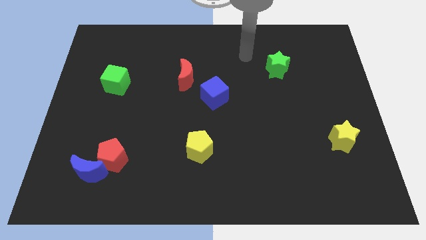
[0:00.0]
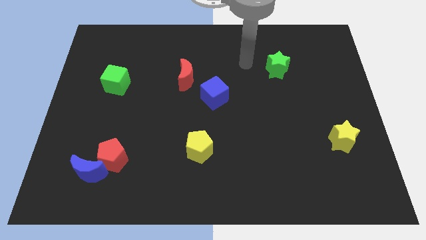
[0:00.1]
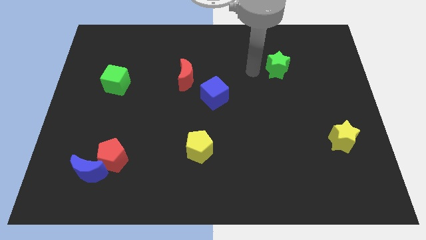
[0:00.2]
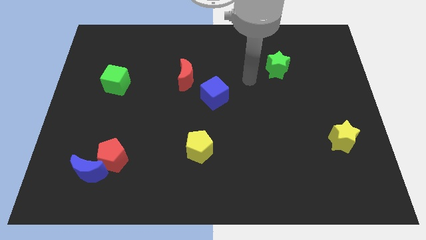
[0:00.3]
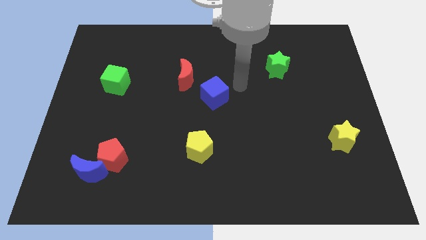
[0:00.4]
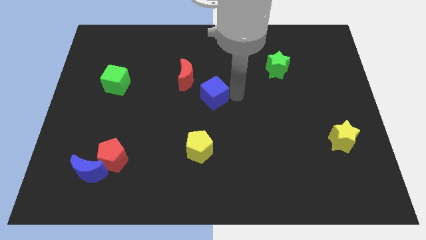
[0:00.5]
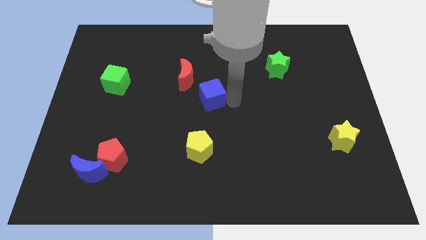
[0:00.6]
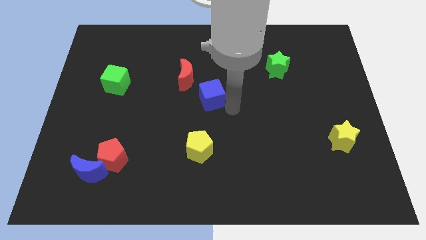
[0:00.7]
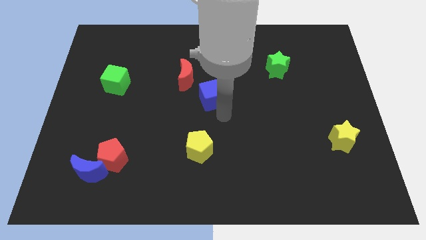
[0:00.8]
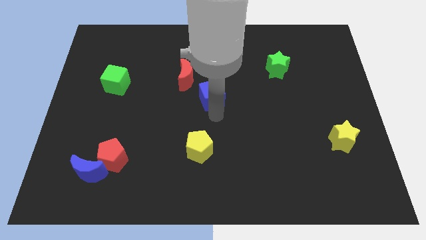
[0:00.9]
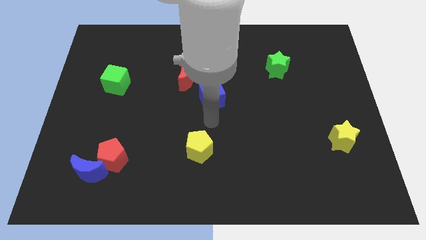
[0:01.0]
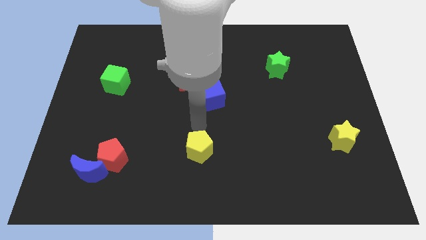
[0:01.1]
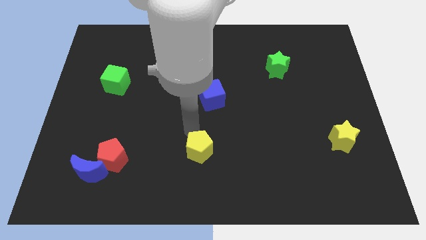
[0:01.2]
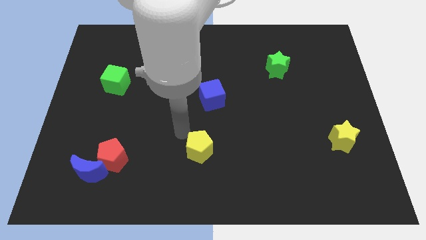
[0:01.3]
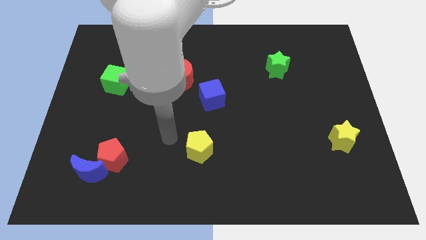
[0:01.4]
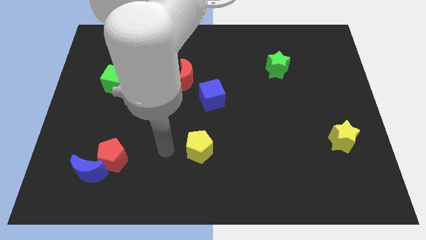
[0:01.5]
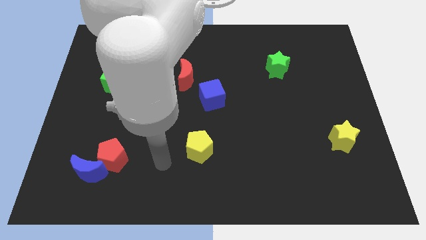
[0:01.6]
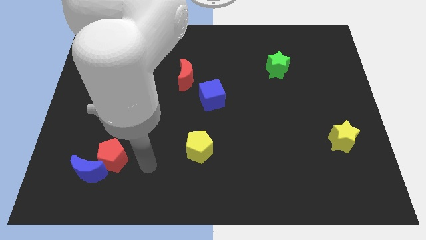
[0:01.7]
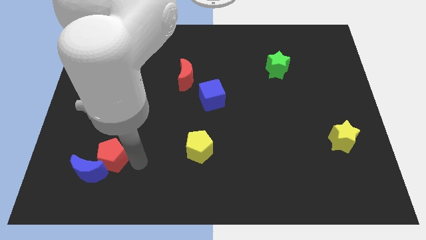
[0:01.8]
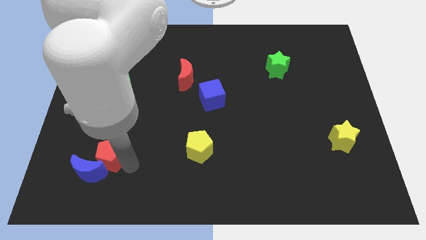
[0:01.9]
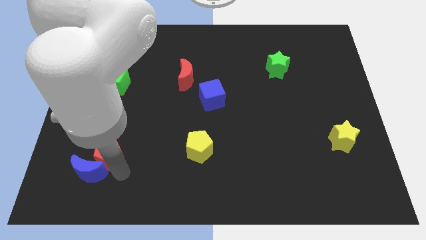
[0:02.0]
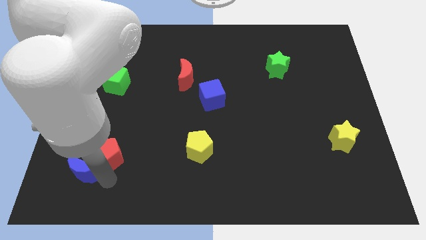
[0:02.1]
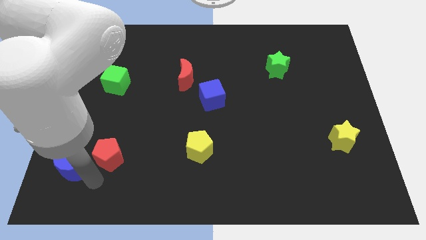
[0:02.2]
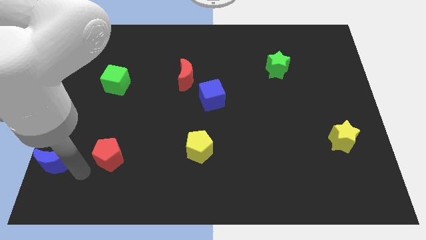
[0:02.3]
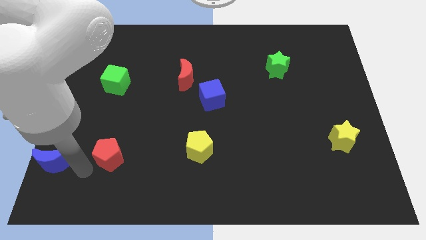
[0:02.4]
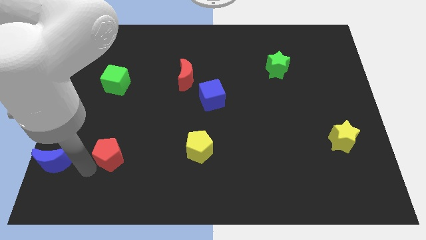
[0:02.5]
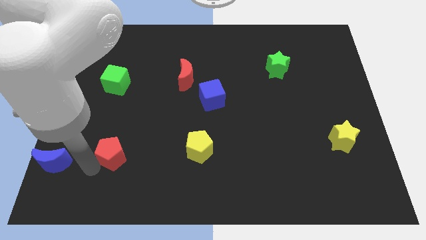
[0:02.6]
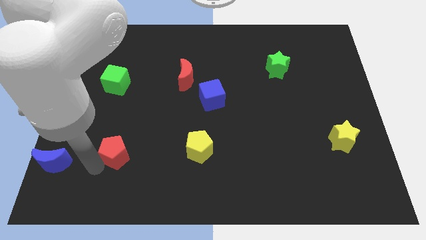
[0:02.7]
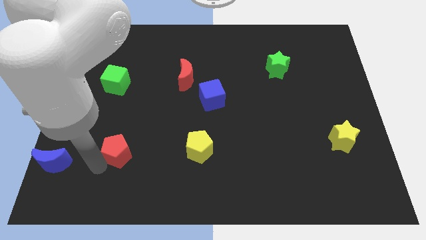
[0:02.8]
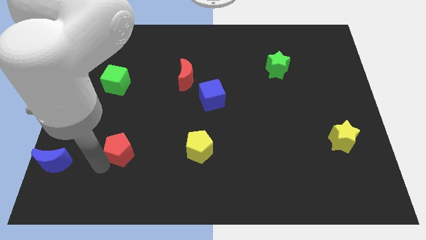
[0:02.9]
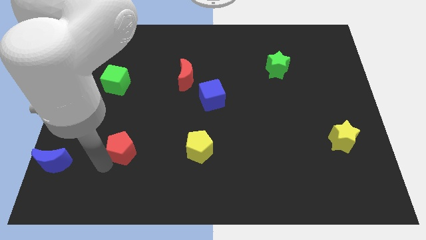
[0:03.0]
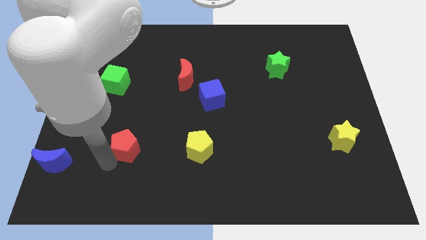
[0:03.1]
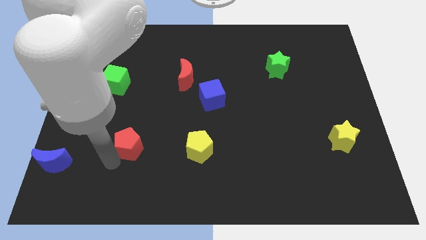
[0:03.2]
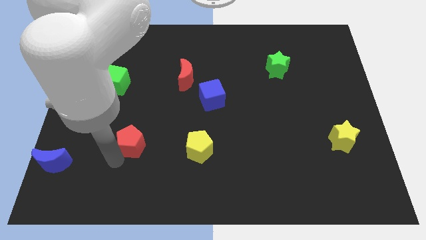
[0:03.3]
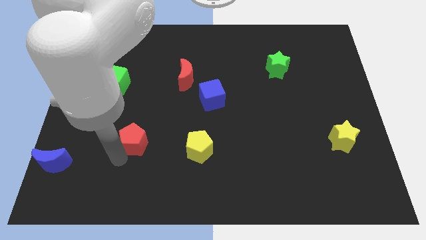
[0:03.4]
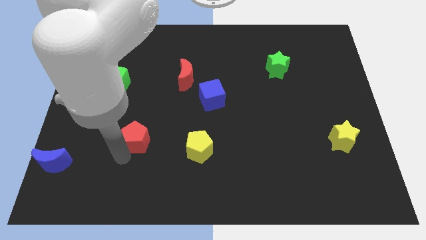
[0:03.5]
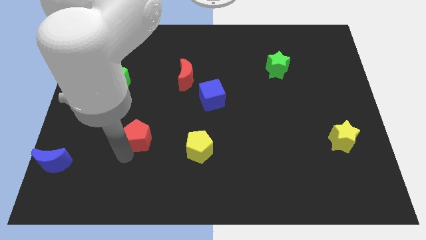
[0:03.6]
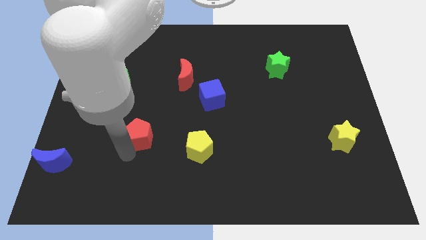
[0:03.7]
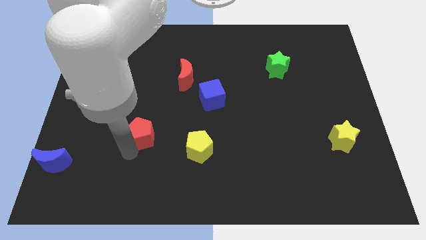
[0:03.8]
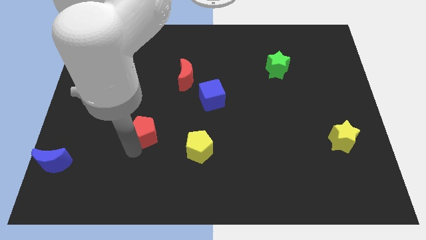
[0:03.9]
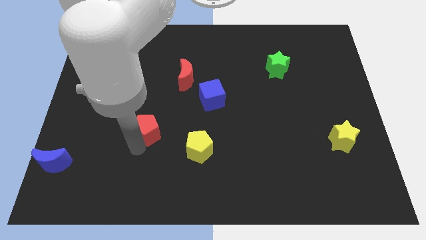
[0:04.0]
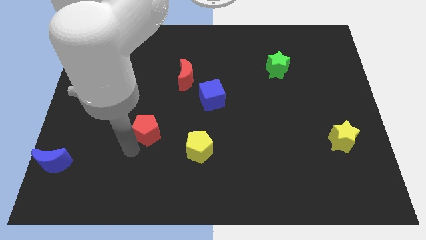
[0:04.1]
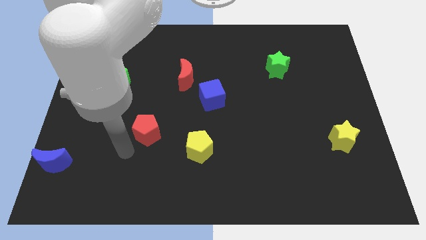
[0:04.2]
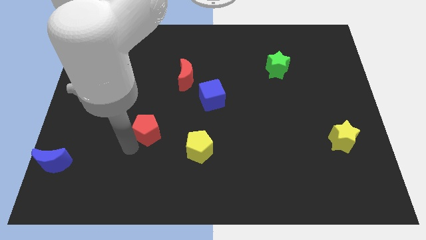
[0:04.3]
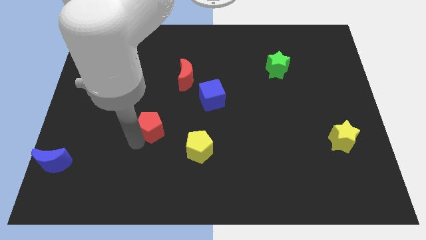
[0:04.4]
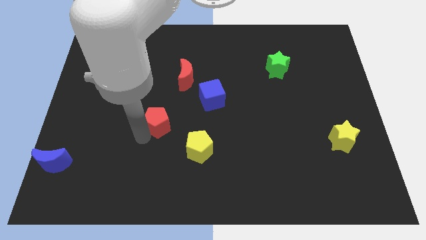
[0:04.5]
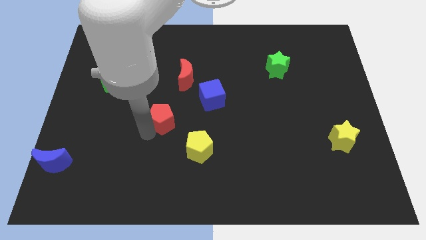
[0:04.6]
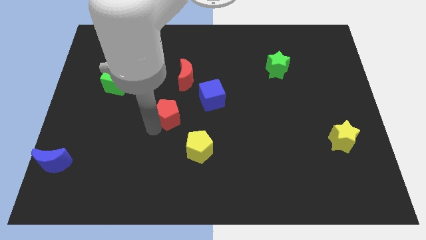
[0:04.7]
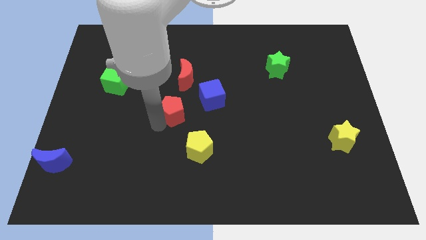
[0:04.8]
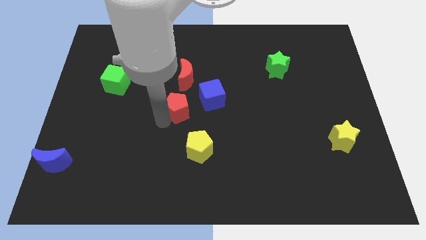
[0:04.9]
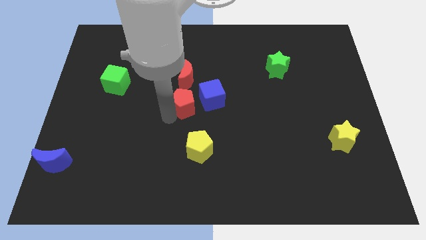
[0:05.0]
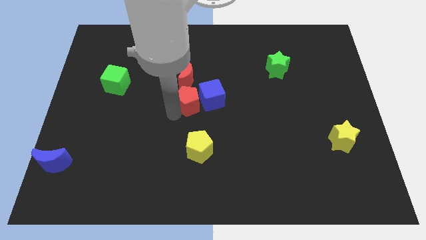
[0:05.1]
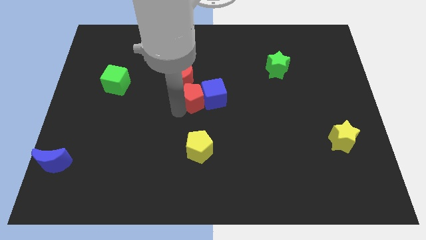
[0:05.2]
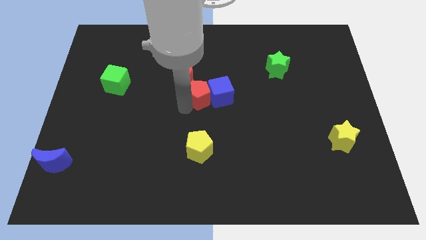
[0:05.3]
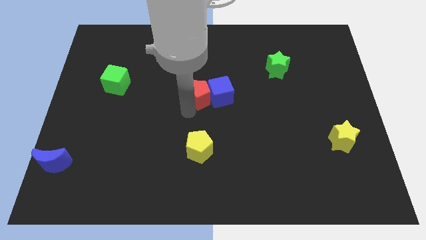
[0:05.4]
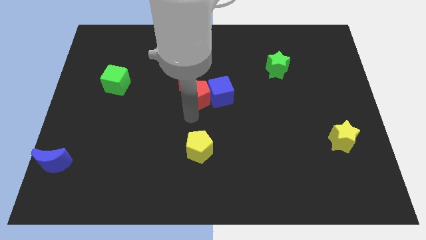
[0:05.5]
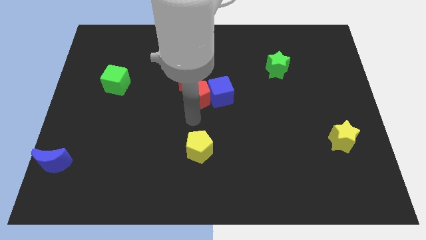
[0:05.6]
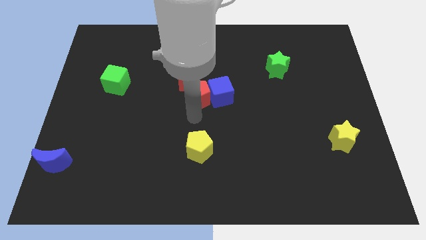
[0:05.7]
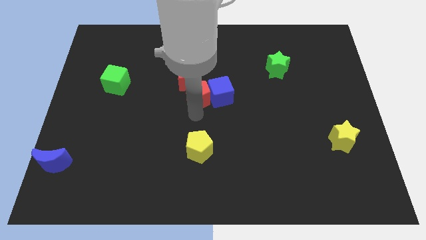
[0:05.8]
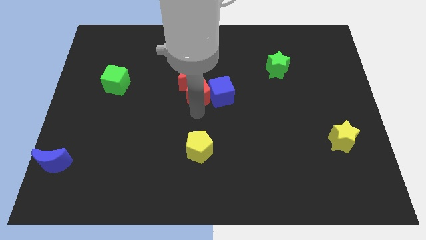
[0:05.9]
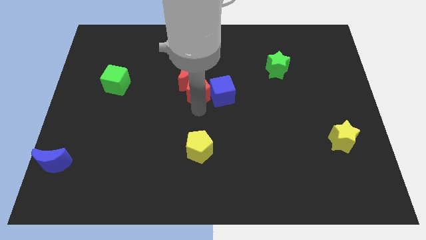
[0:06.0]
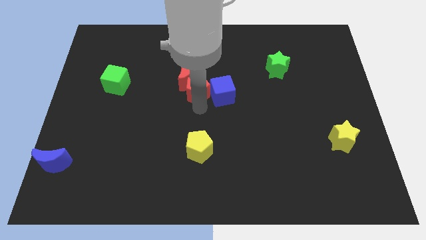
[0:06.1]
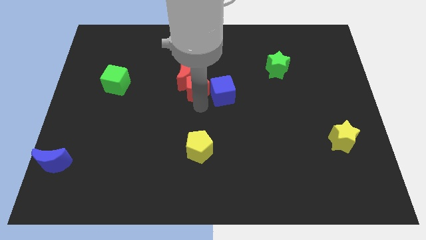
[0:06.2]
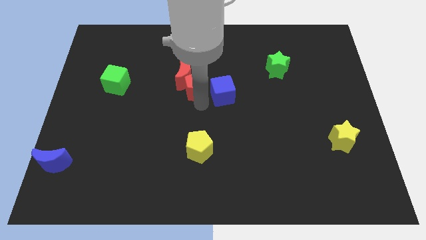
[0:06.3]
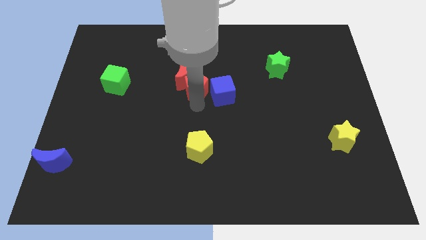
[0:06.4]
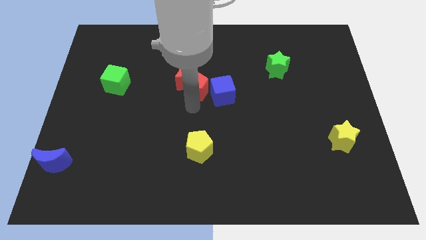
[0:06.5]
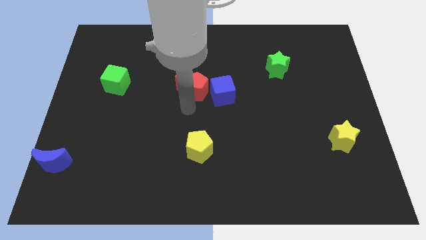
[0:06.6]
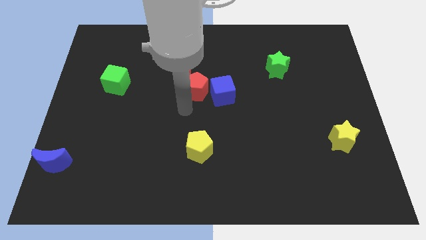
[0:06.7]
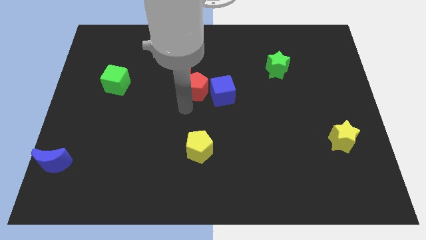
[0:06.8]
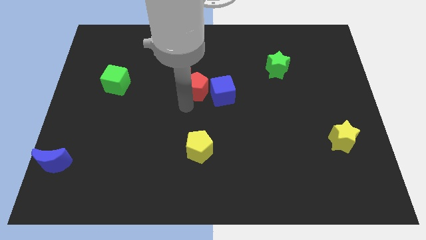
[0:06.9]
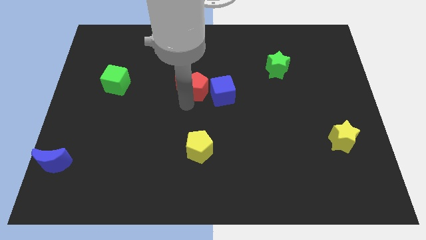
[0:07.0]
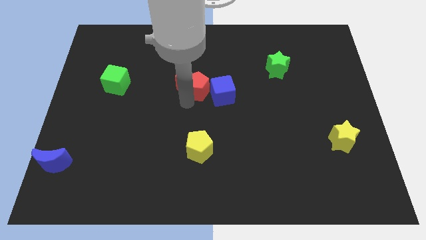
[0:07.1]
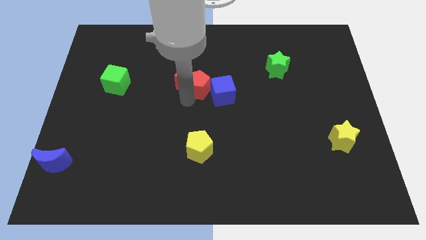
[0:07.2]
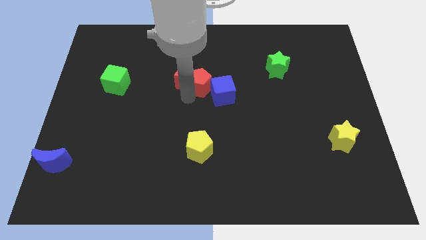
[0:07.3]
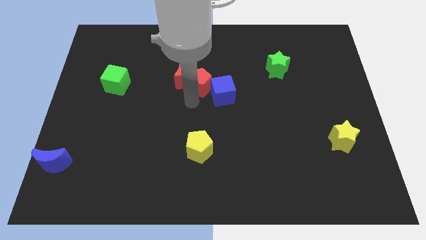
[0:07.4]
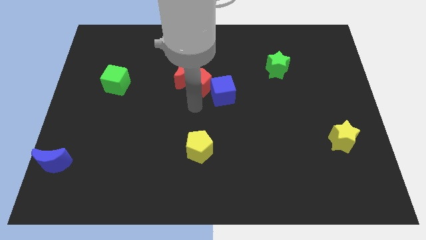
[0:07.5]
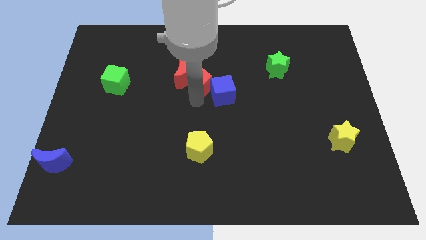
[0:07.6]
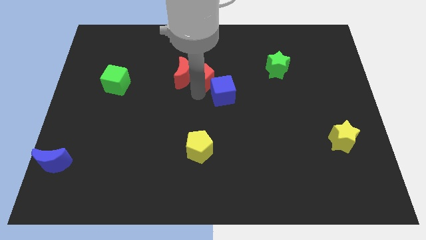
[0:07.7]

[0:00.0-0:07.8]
push the red pentagon to the top right of the red moon
